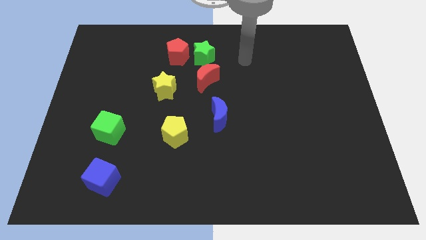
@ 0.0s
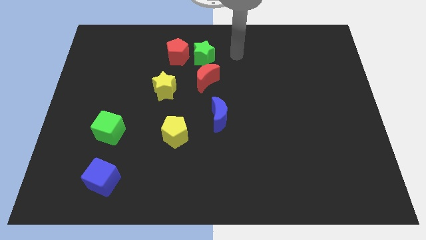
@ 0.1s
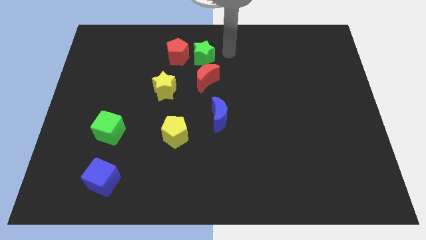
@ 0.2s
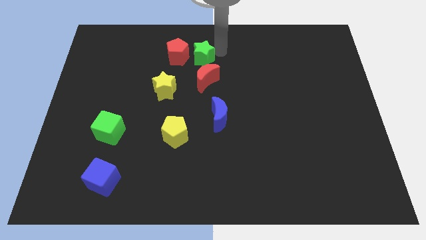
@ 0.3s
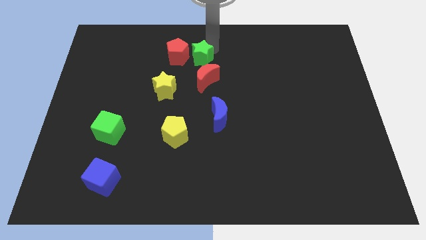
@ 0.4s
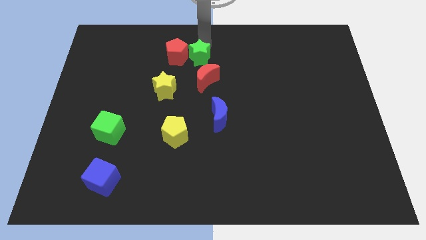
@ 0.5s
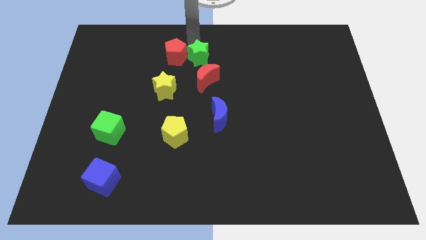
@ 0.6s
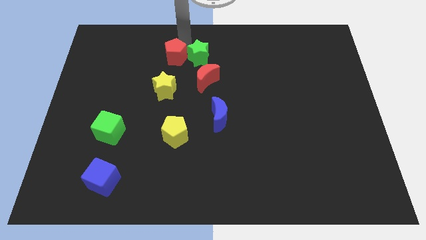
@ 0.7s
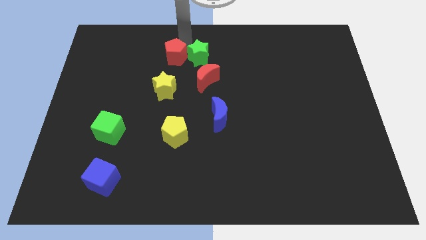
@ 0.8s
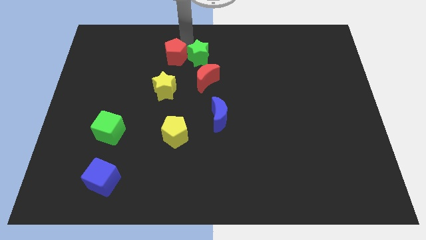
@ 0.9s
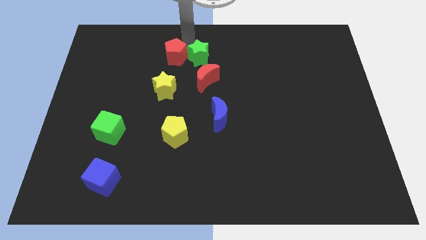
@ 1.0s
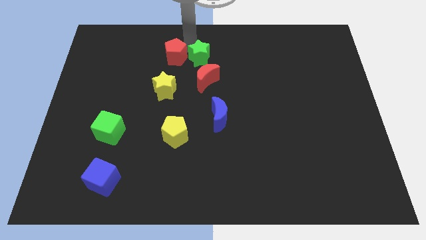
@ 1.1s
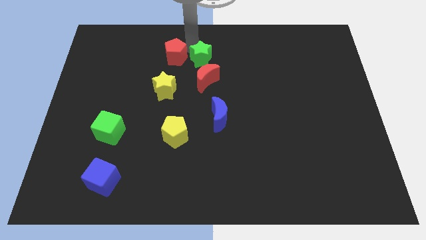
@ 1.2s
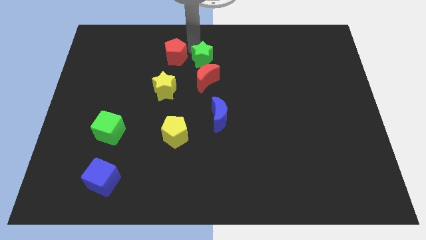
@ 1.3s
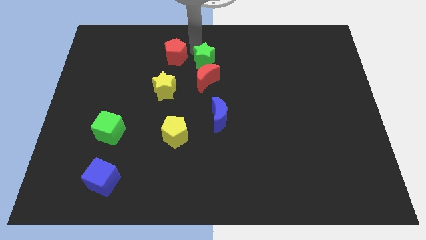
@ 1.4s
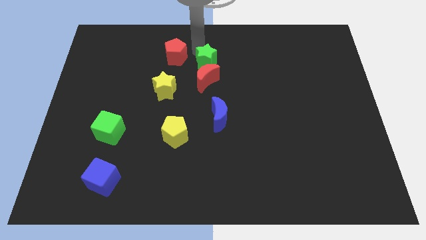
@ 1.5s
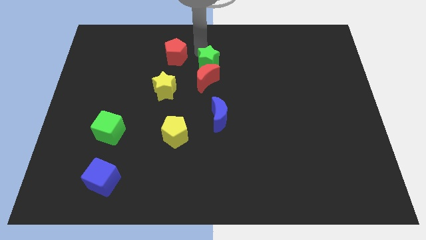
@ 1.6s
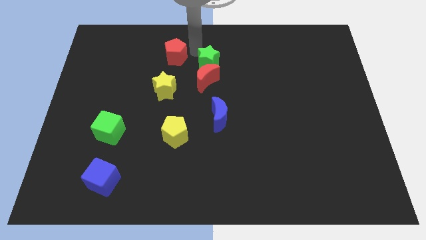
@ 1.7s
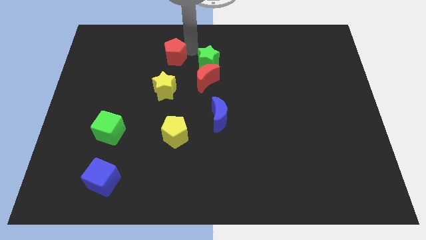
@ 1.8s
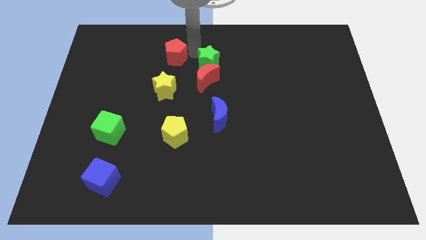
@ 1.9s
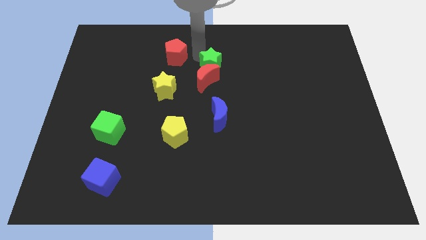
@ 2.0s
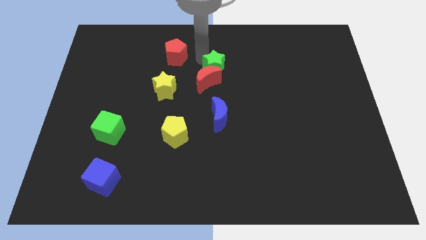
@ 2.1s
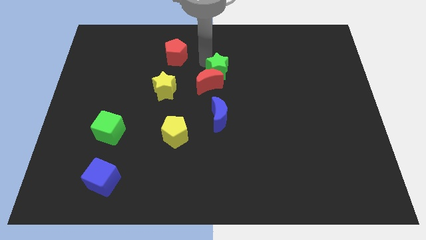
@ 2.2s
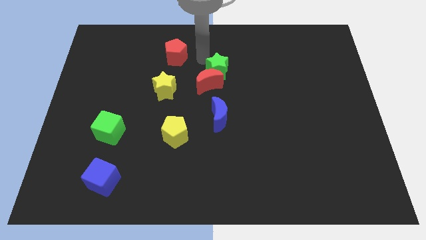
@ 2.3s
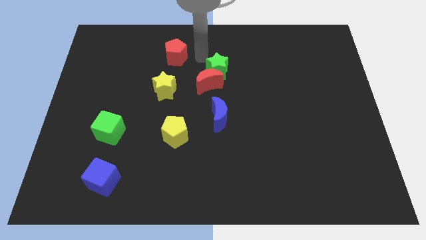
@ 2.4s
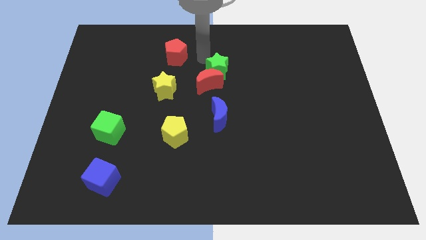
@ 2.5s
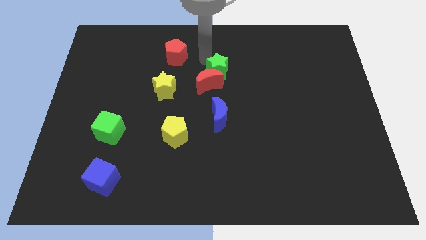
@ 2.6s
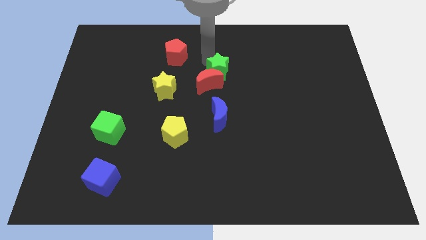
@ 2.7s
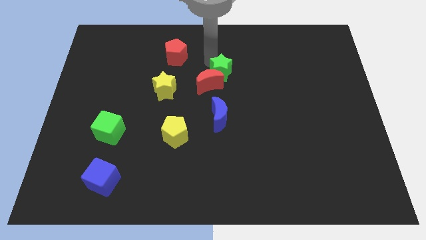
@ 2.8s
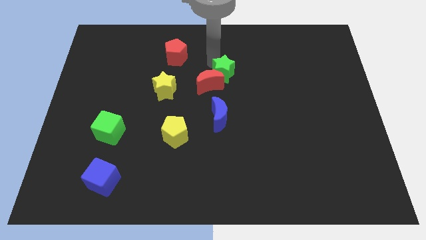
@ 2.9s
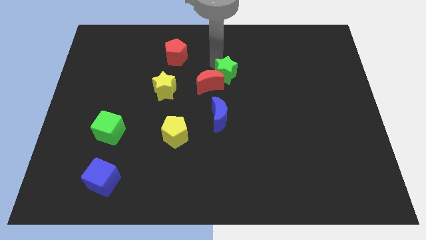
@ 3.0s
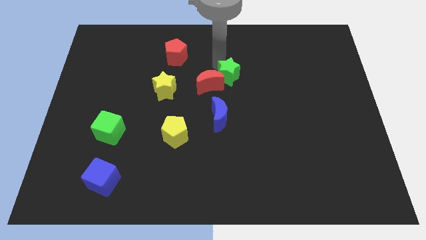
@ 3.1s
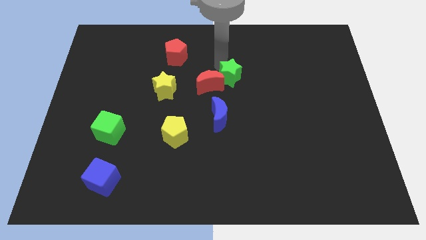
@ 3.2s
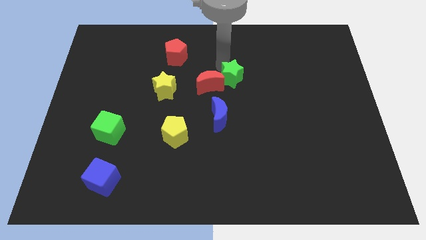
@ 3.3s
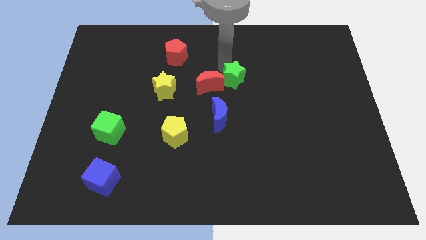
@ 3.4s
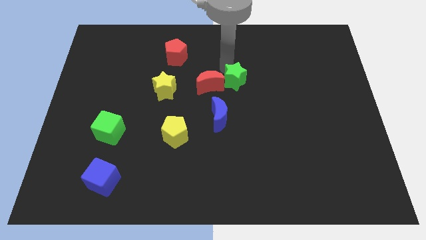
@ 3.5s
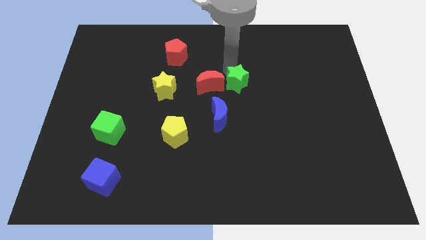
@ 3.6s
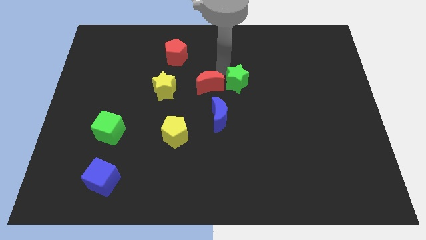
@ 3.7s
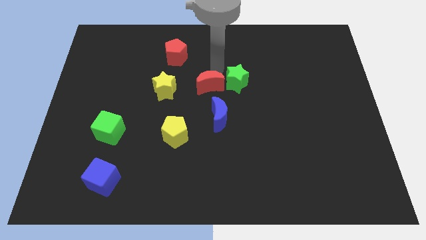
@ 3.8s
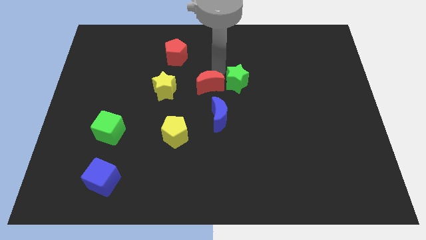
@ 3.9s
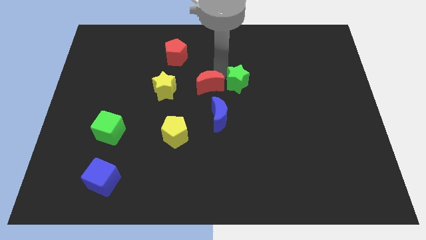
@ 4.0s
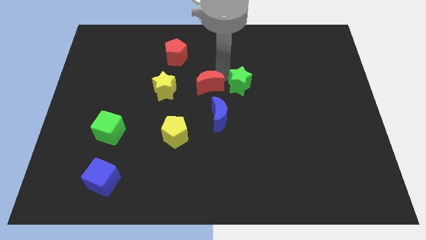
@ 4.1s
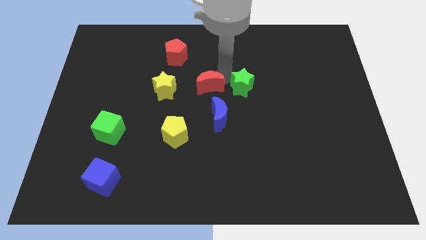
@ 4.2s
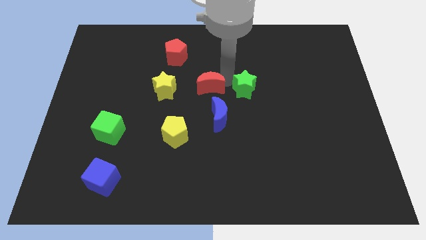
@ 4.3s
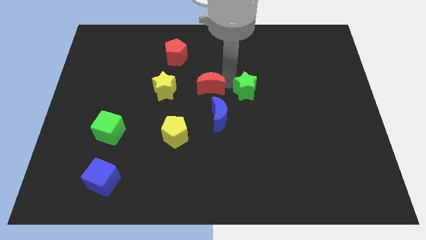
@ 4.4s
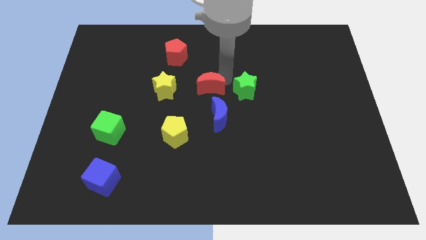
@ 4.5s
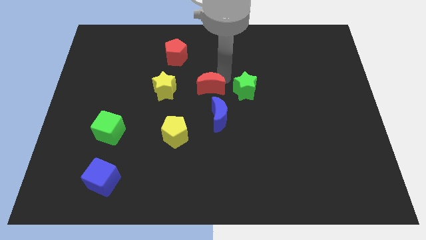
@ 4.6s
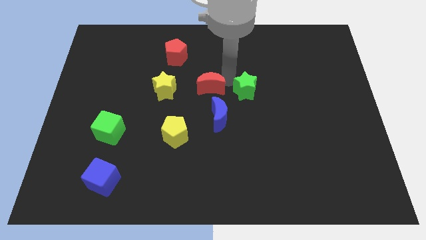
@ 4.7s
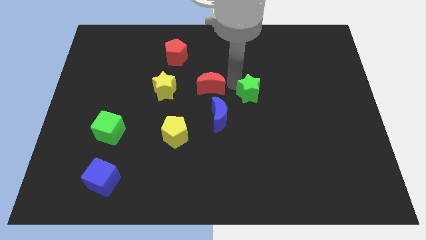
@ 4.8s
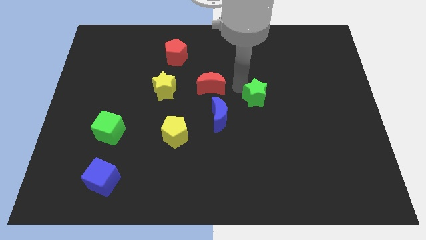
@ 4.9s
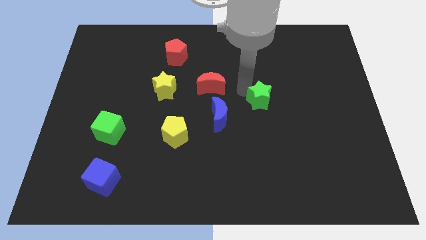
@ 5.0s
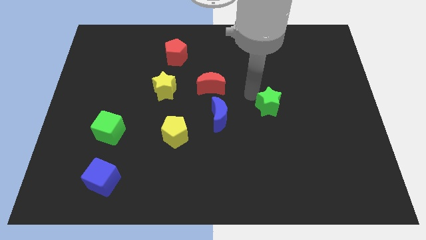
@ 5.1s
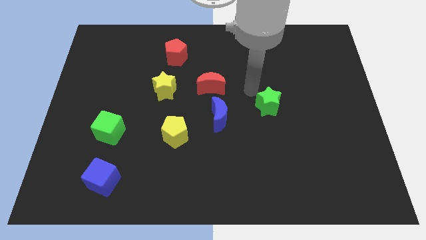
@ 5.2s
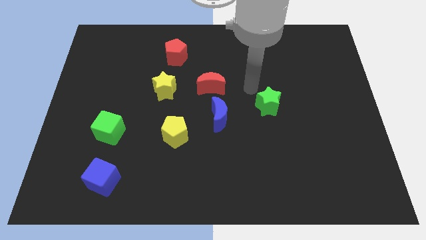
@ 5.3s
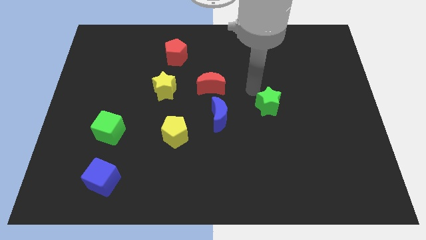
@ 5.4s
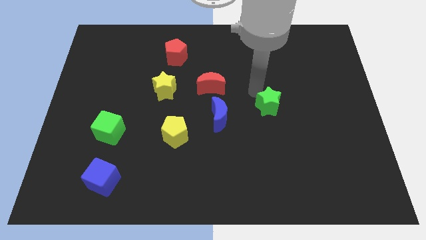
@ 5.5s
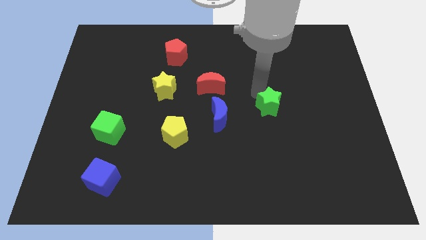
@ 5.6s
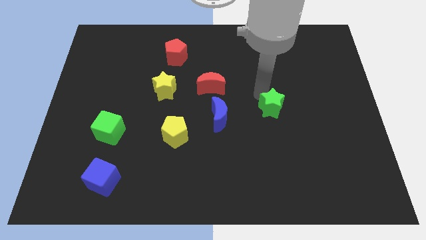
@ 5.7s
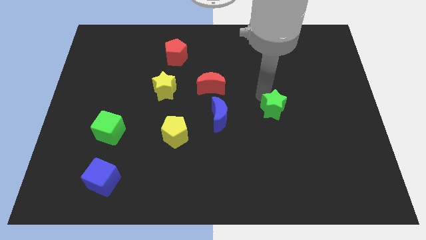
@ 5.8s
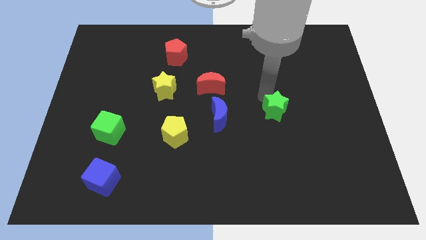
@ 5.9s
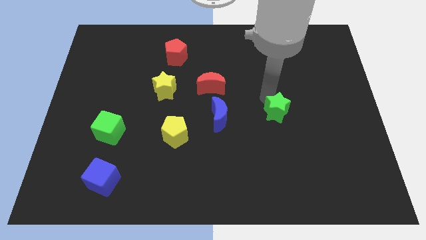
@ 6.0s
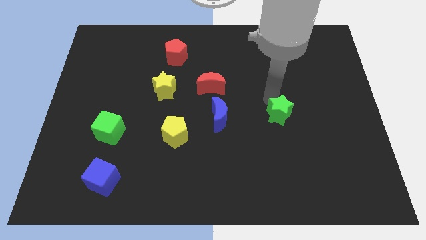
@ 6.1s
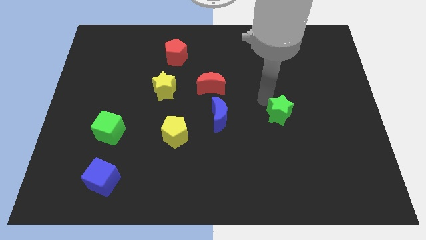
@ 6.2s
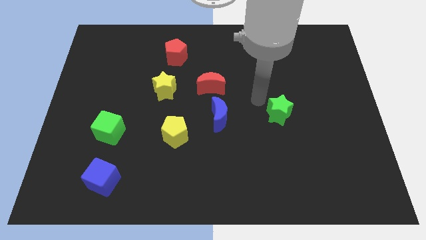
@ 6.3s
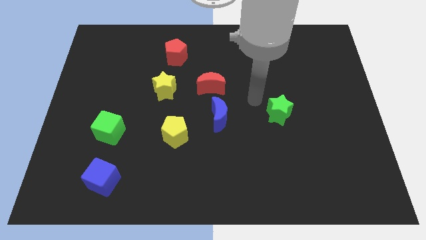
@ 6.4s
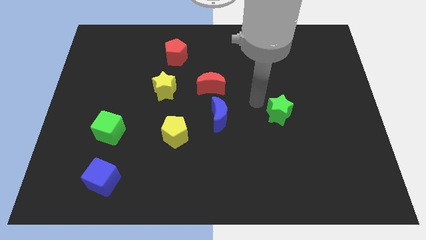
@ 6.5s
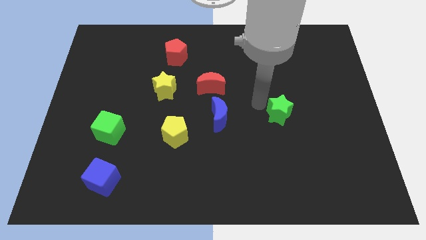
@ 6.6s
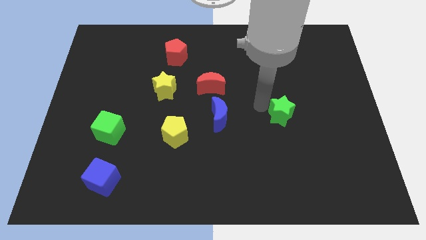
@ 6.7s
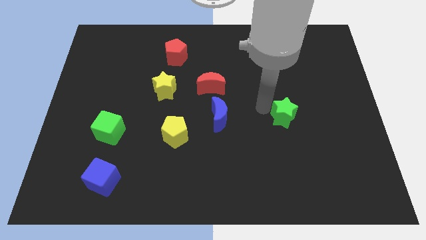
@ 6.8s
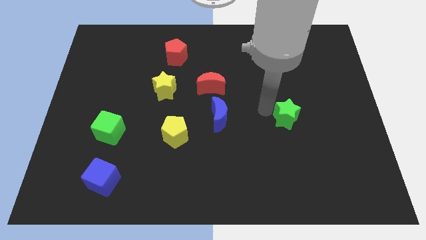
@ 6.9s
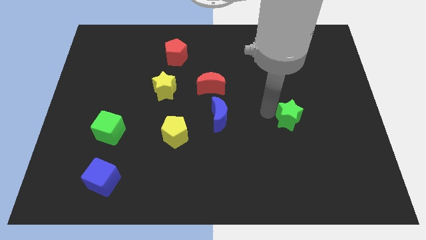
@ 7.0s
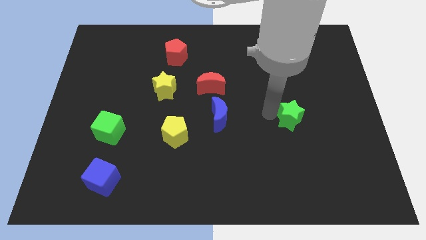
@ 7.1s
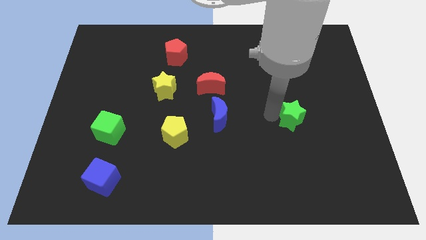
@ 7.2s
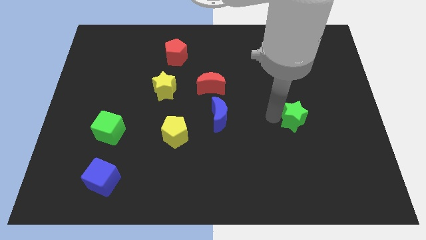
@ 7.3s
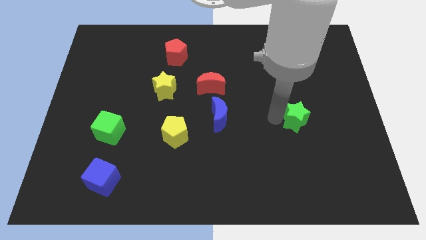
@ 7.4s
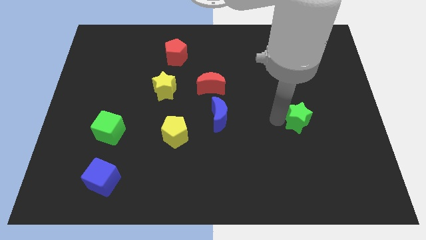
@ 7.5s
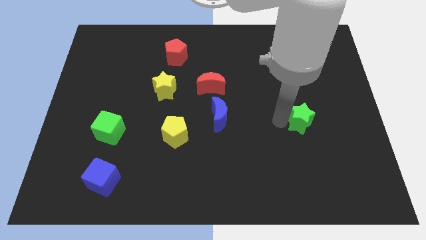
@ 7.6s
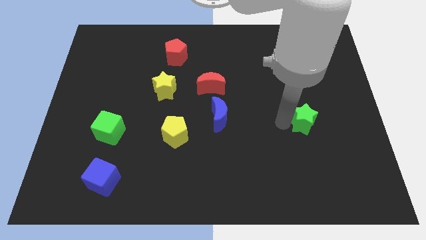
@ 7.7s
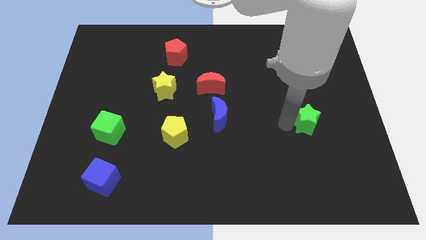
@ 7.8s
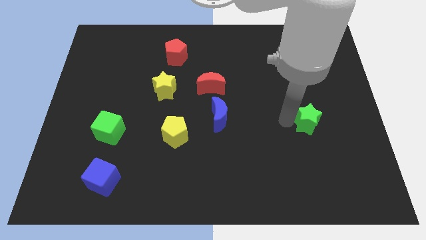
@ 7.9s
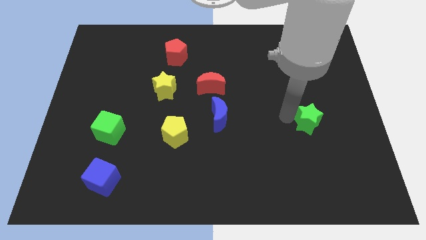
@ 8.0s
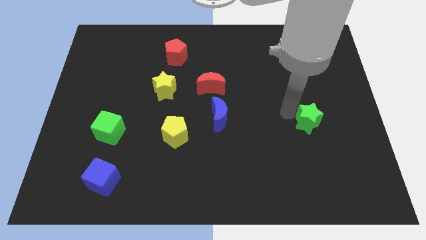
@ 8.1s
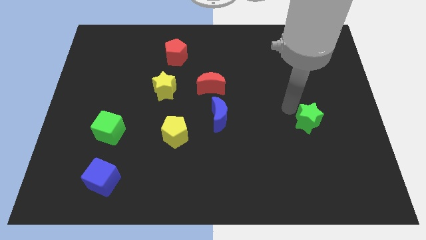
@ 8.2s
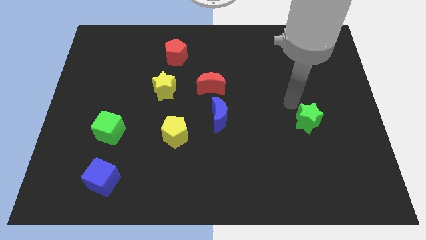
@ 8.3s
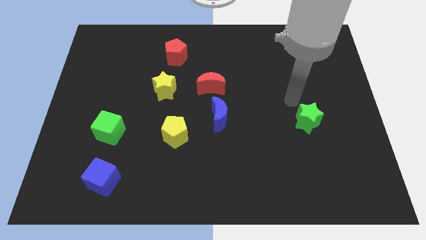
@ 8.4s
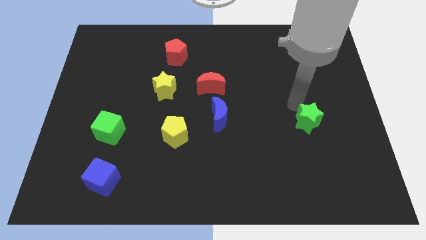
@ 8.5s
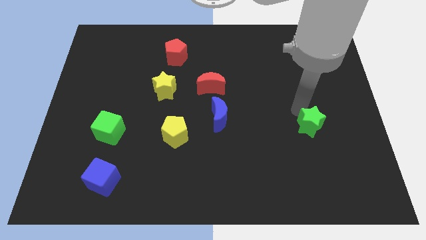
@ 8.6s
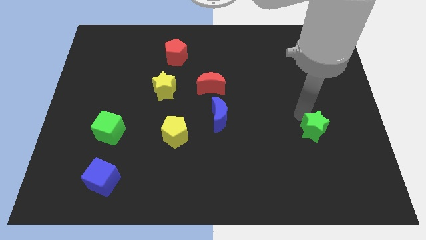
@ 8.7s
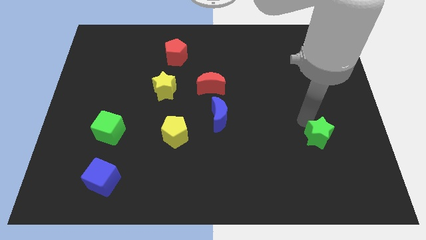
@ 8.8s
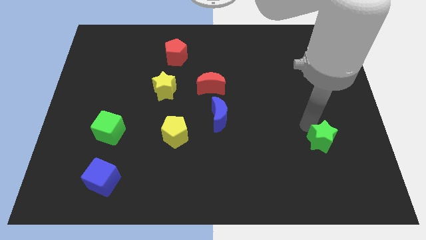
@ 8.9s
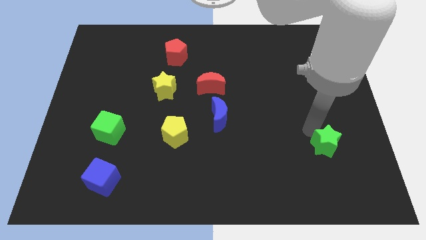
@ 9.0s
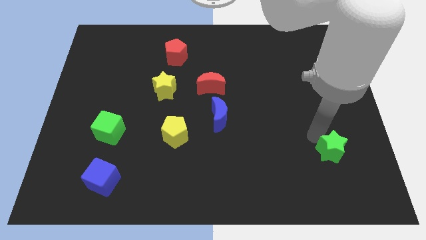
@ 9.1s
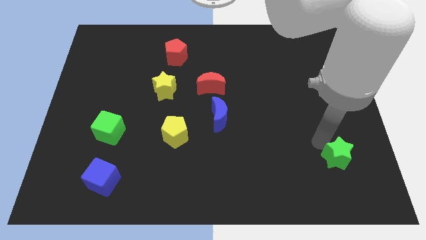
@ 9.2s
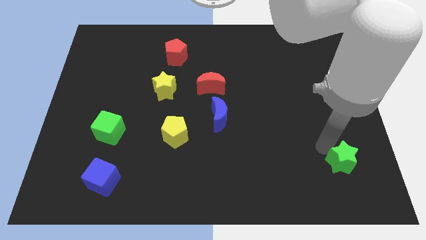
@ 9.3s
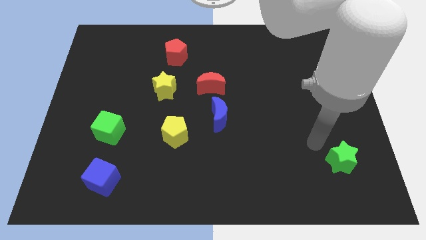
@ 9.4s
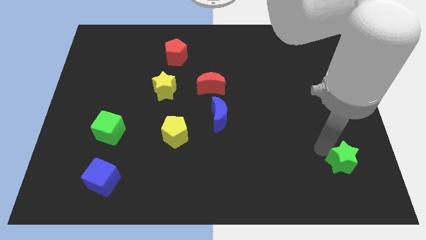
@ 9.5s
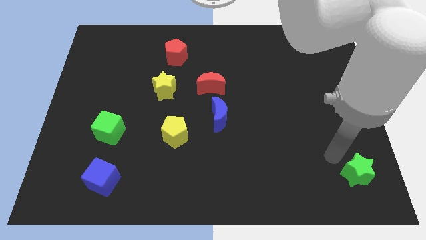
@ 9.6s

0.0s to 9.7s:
push the green star to the bottom right
